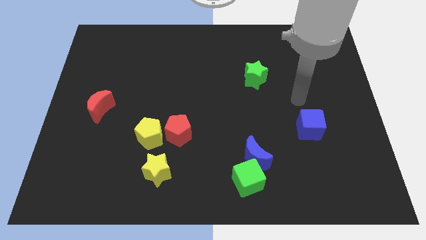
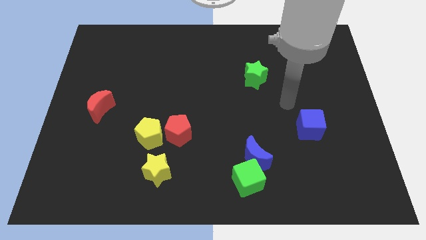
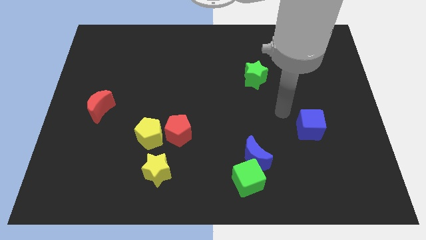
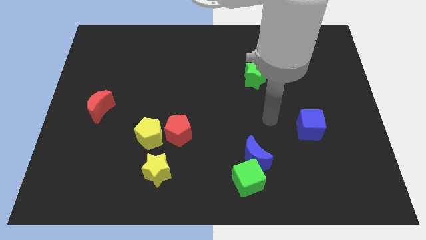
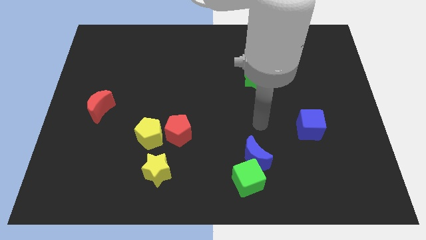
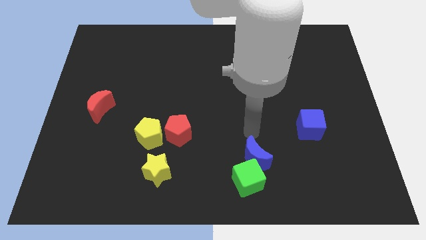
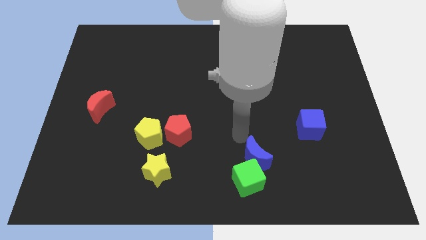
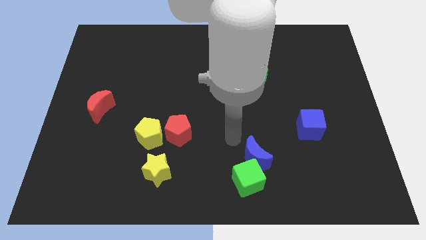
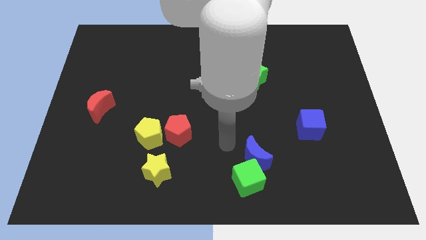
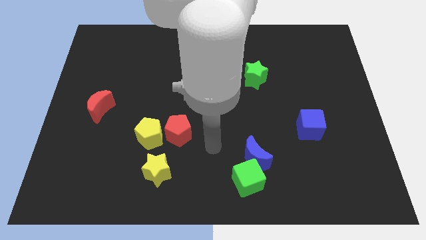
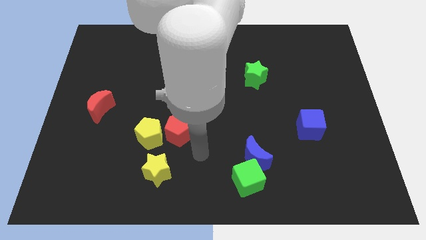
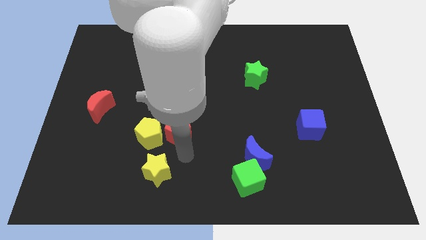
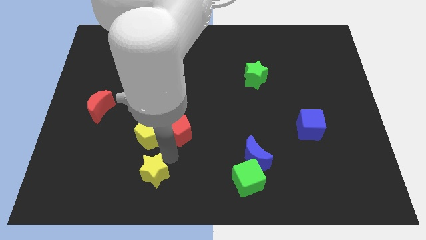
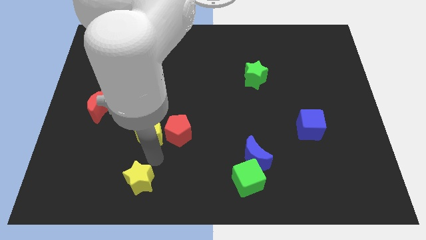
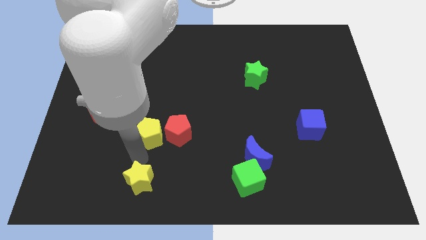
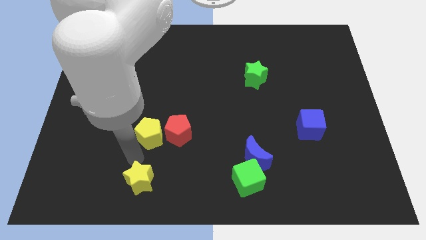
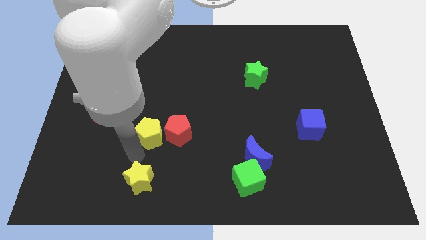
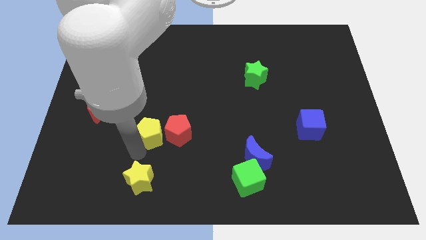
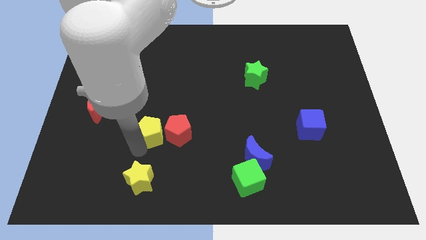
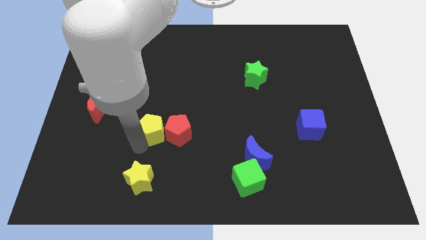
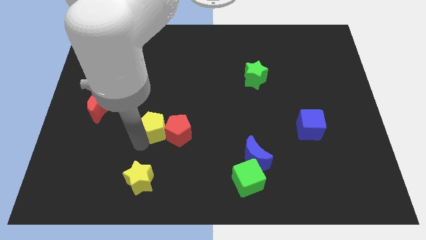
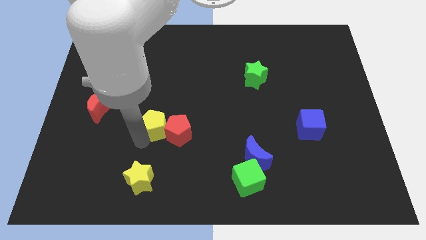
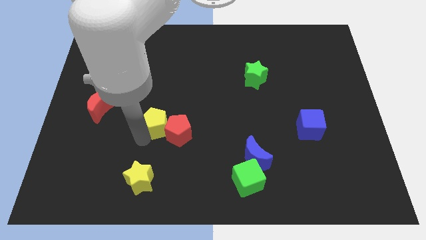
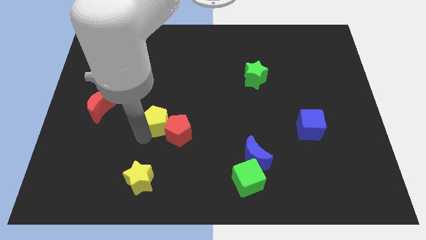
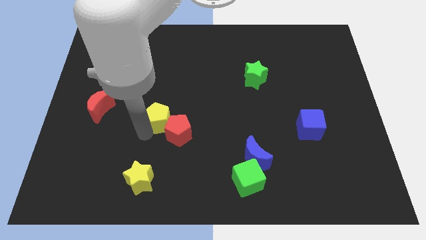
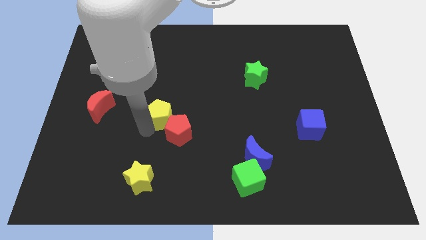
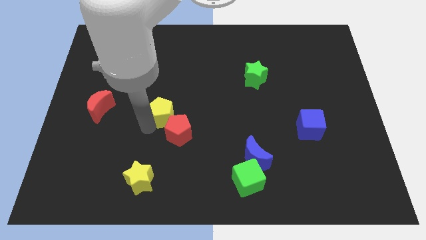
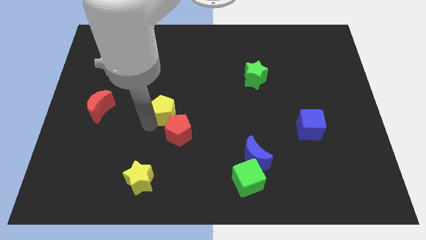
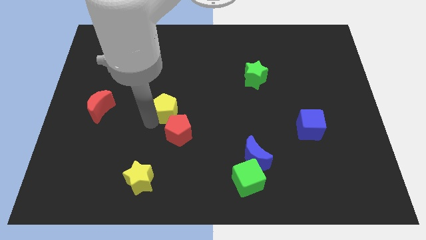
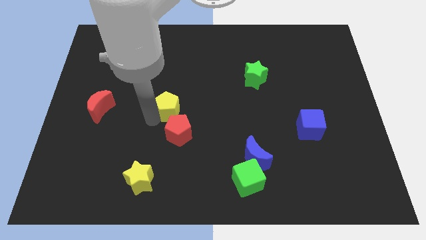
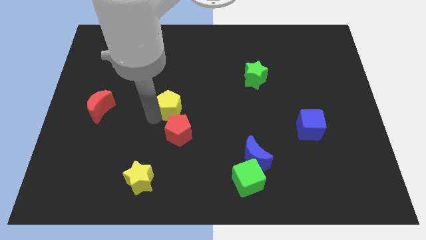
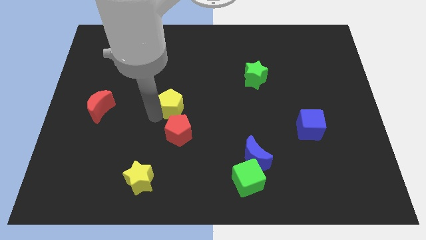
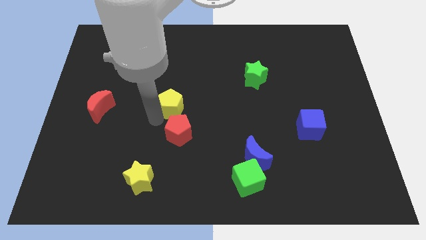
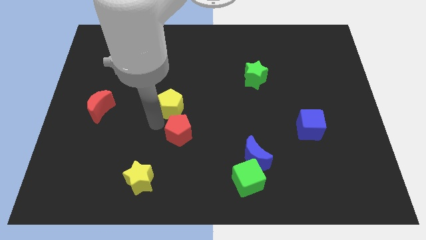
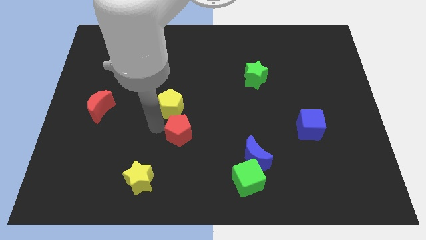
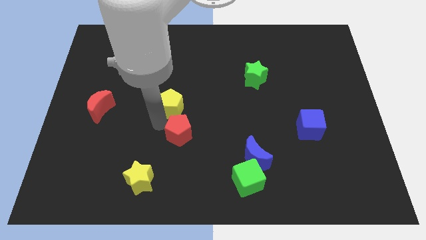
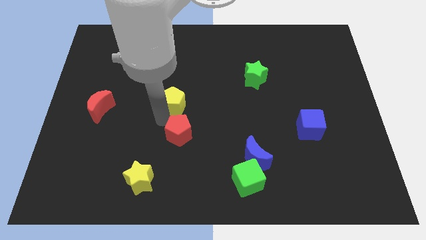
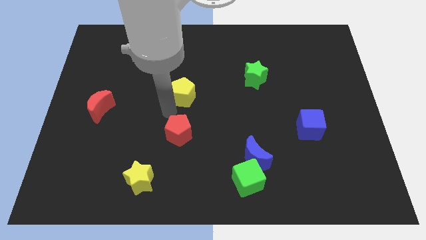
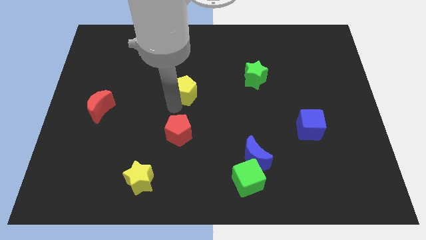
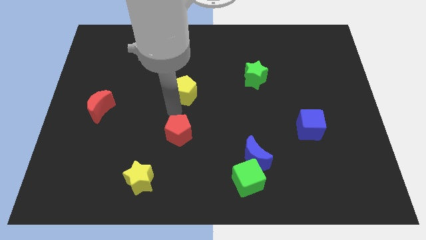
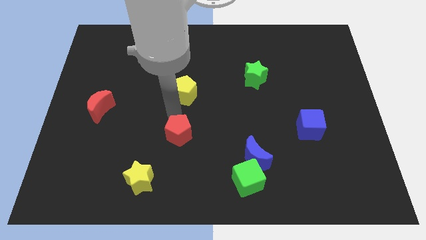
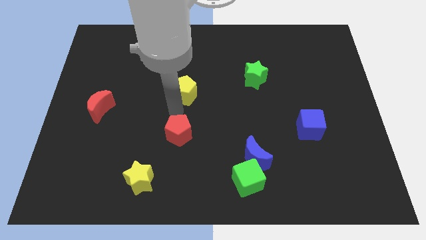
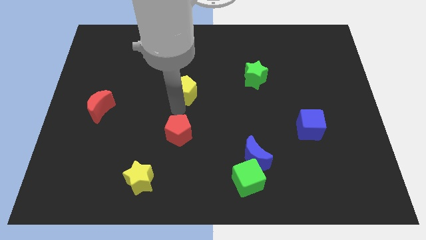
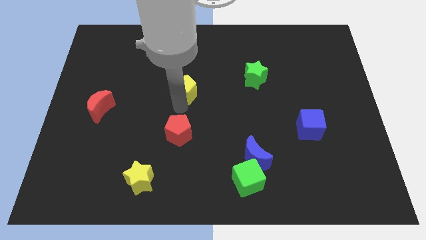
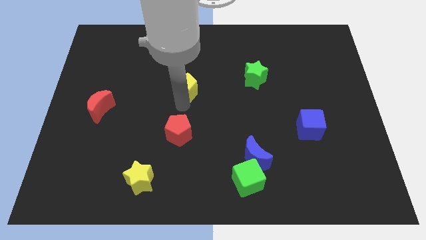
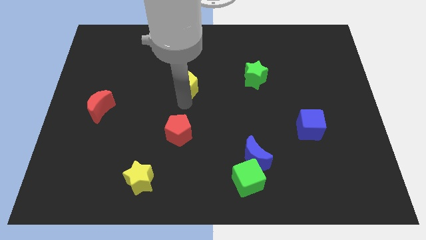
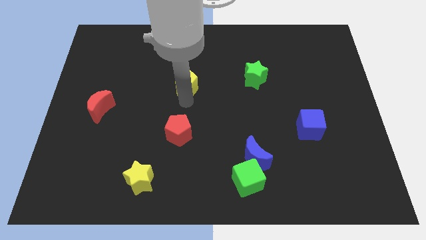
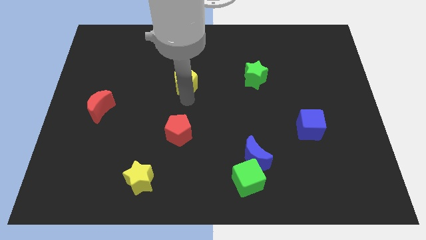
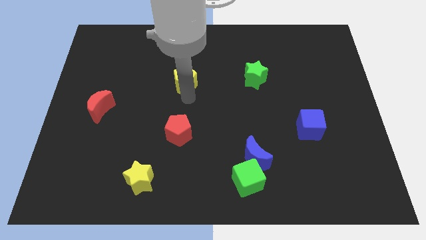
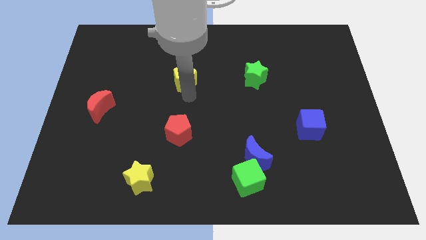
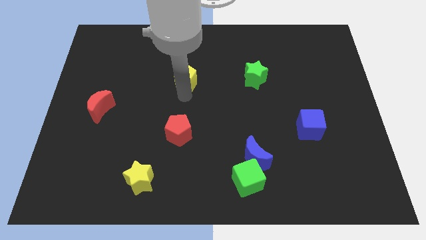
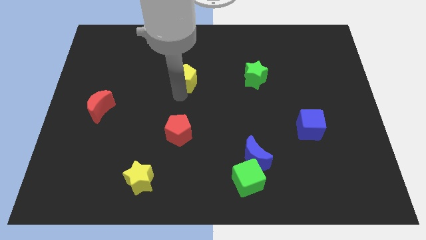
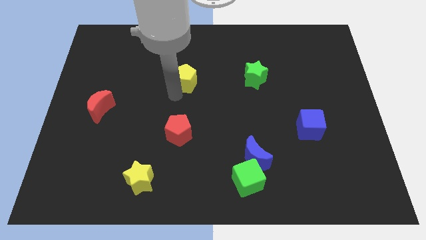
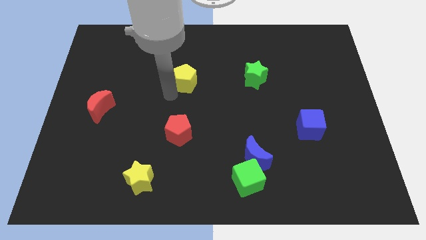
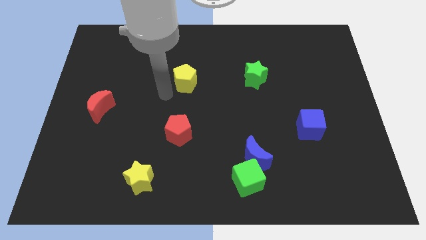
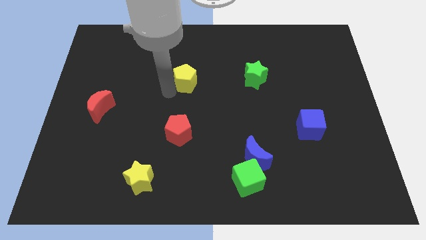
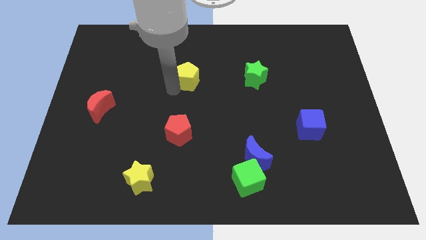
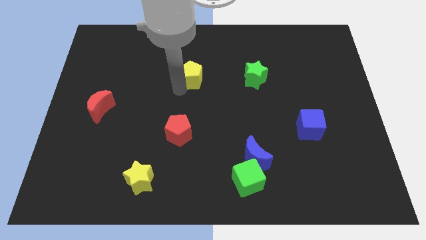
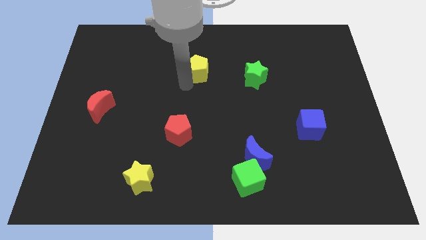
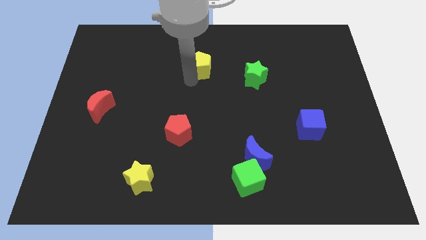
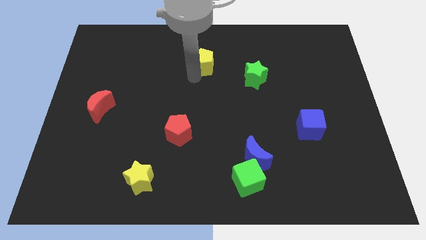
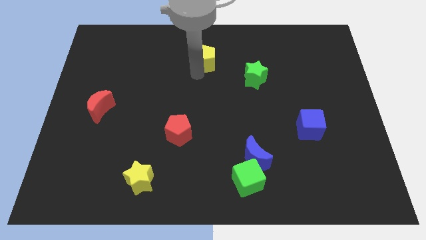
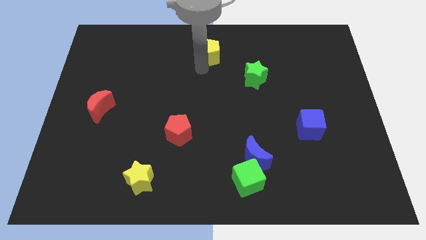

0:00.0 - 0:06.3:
push the yellow pentagon to the top side

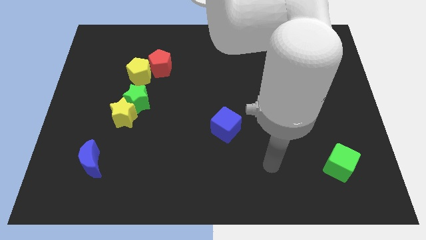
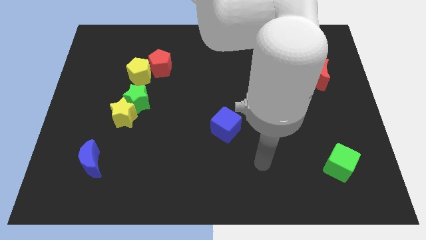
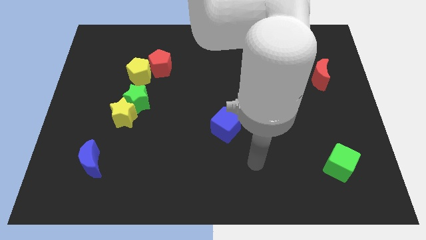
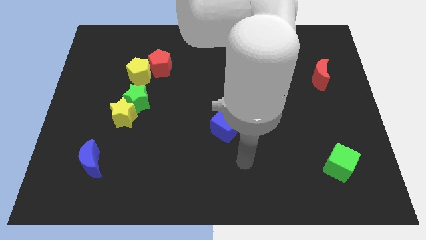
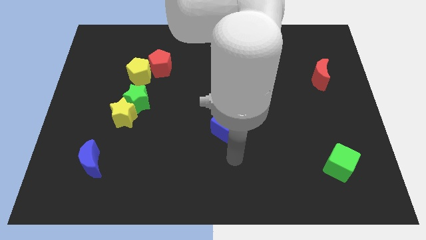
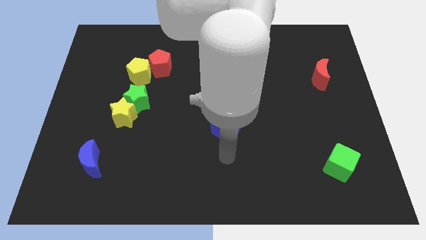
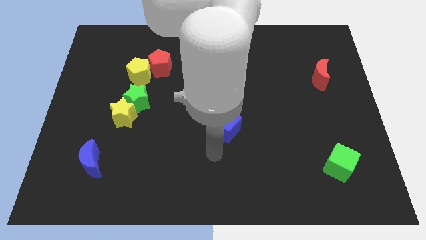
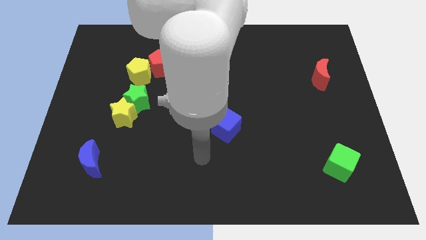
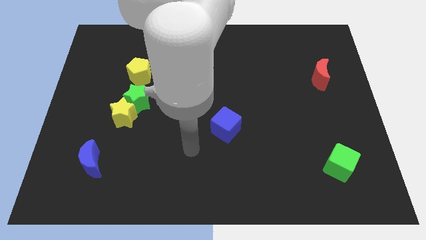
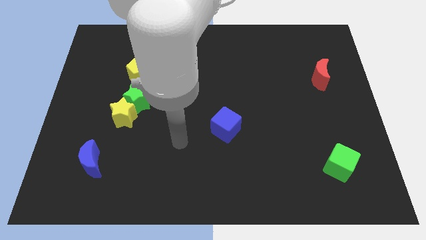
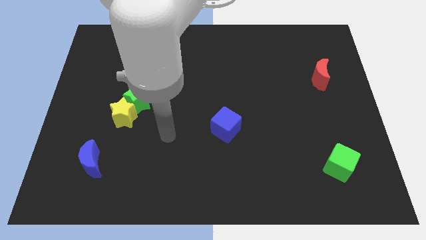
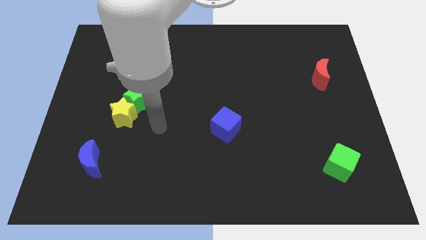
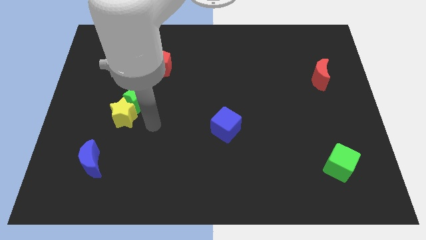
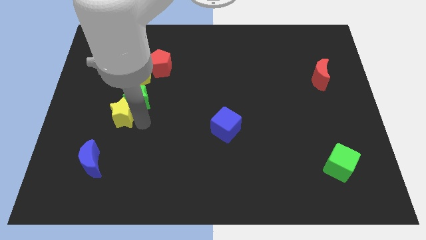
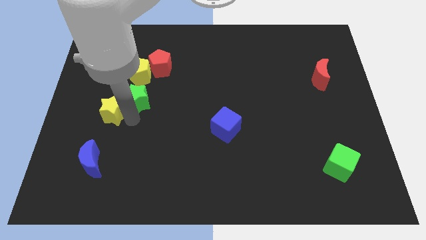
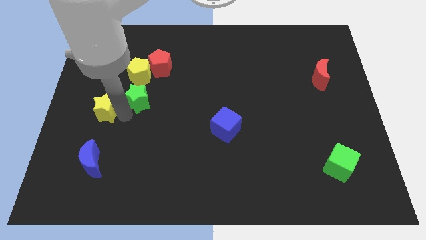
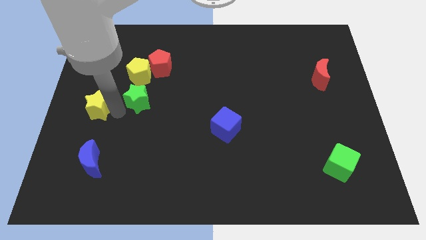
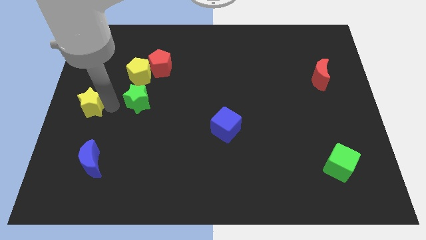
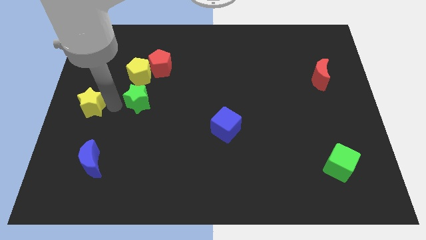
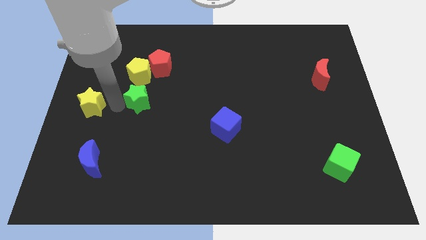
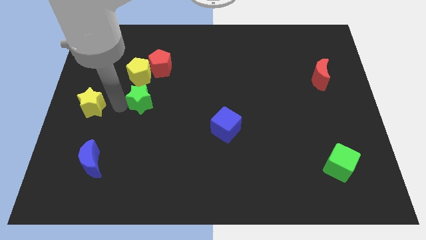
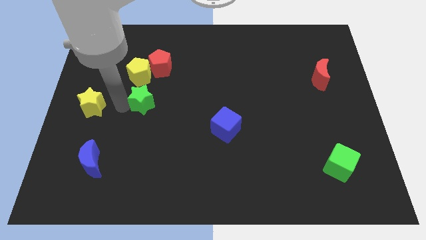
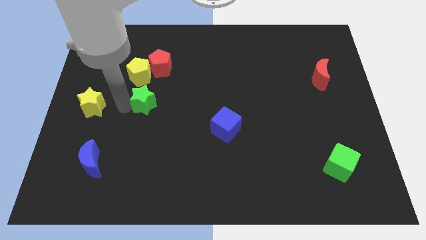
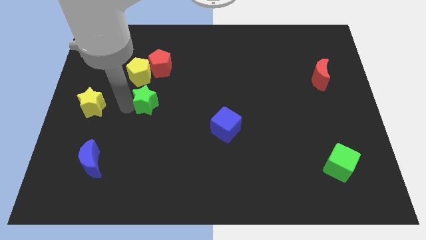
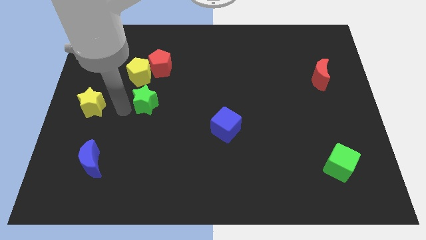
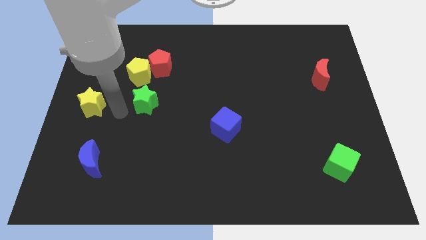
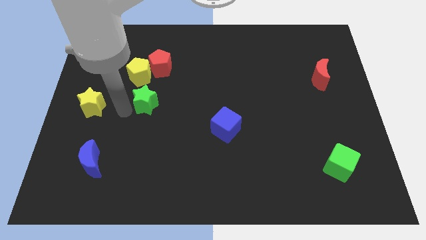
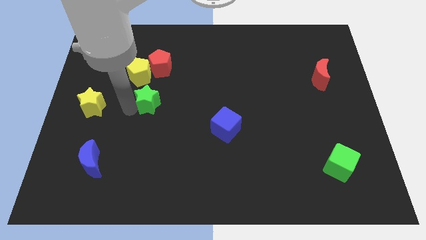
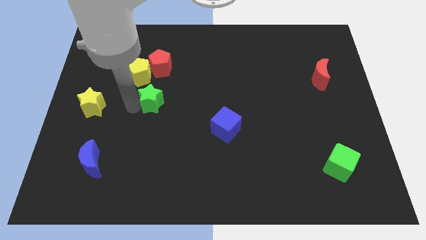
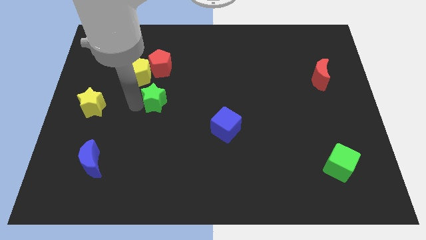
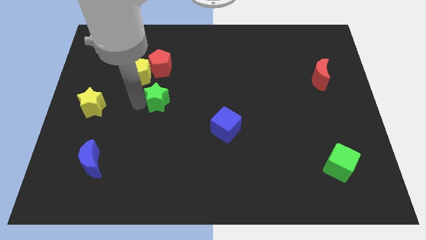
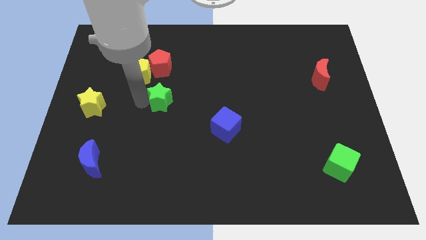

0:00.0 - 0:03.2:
move the green star to the middle
